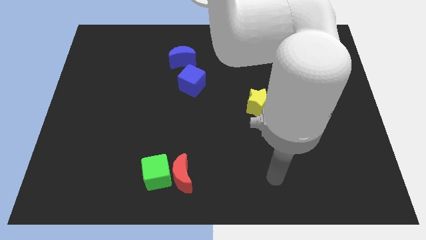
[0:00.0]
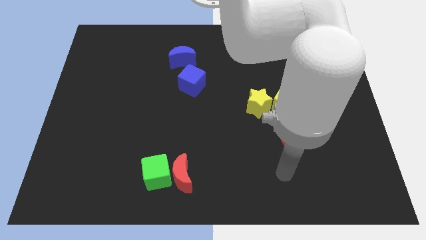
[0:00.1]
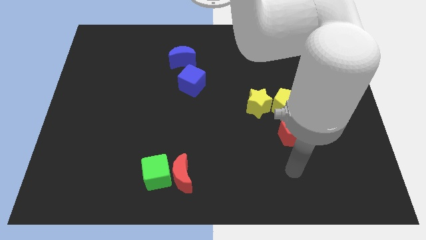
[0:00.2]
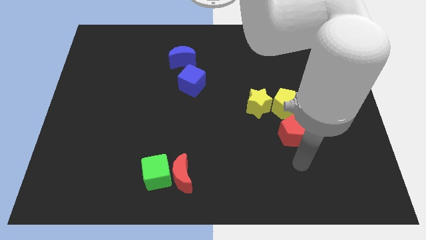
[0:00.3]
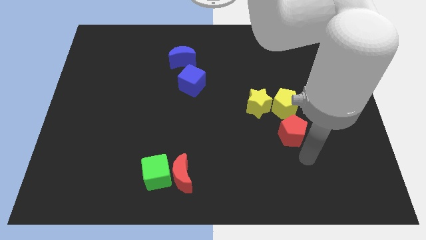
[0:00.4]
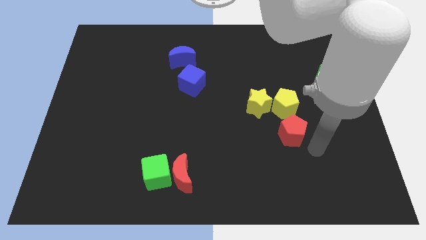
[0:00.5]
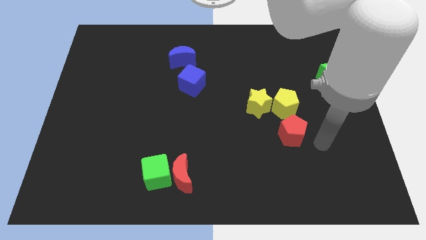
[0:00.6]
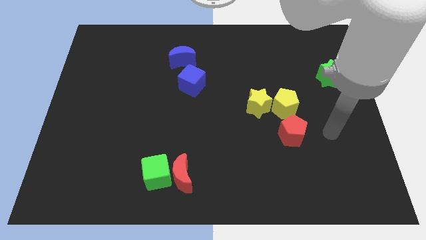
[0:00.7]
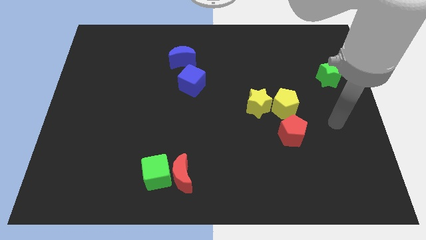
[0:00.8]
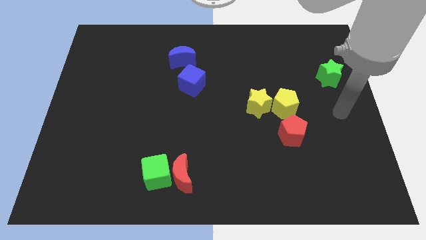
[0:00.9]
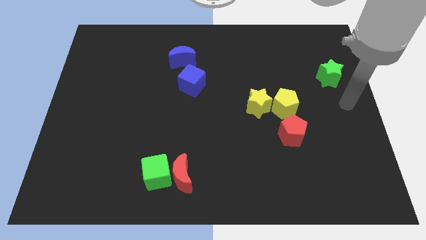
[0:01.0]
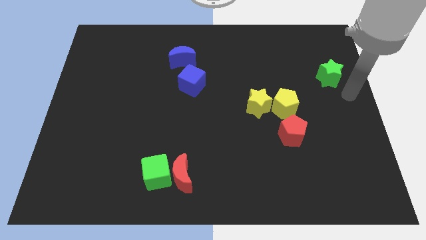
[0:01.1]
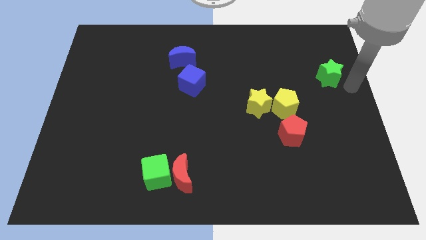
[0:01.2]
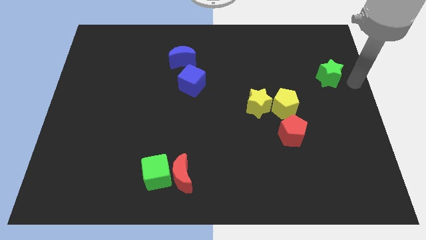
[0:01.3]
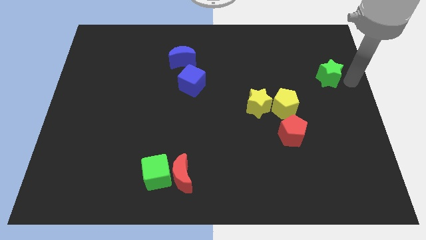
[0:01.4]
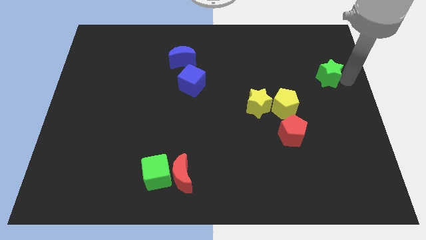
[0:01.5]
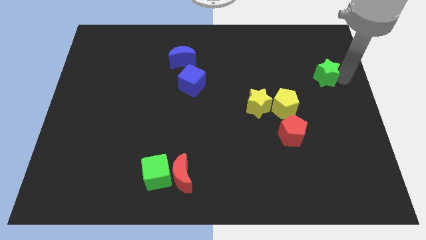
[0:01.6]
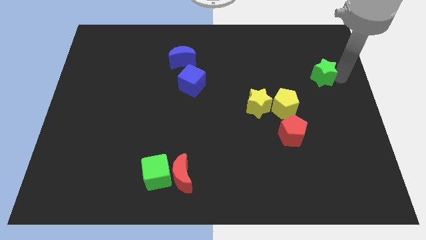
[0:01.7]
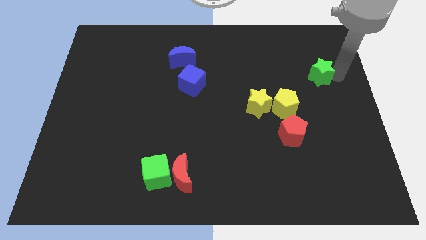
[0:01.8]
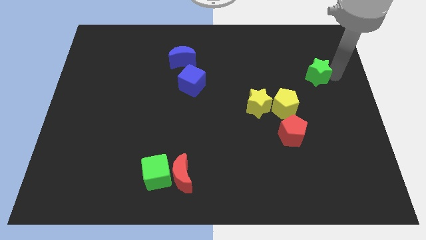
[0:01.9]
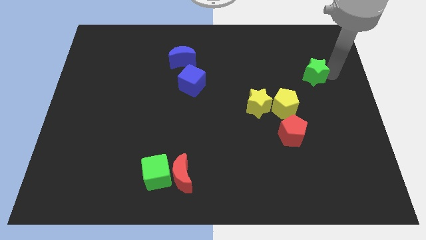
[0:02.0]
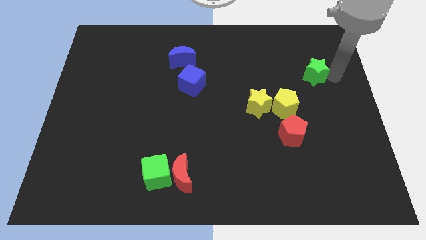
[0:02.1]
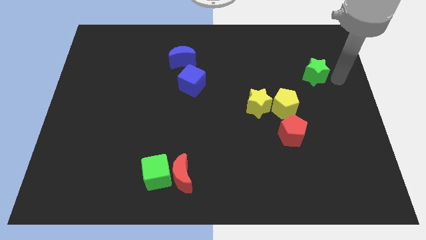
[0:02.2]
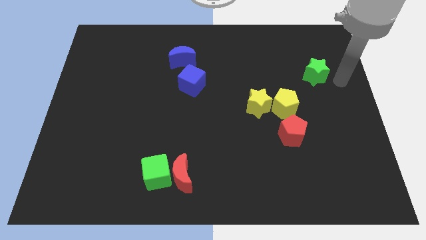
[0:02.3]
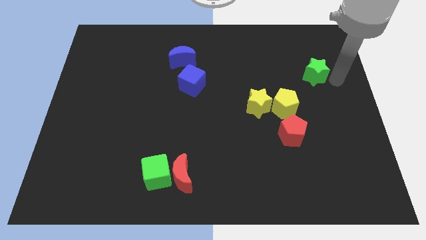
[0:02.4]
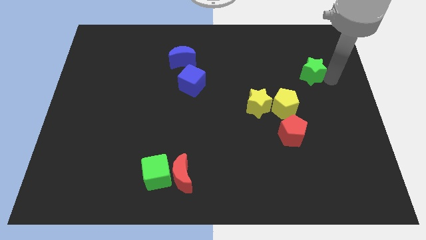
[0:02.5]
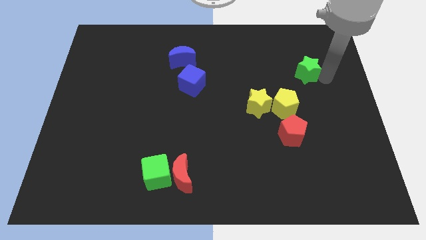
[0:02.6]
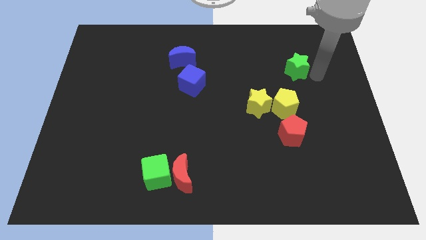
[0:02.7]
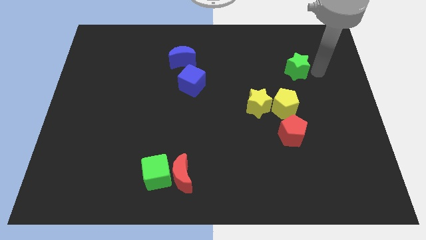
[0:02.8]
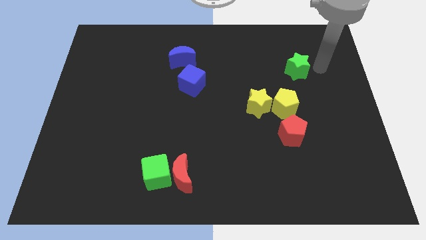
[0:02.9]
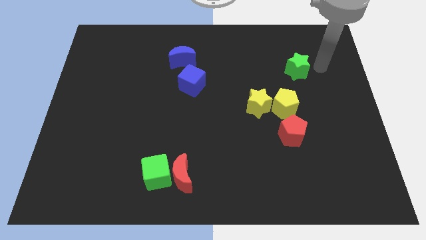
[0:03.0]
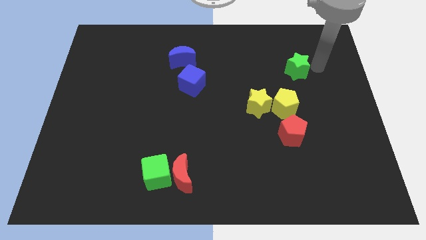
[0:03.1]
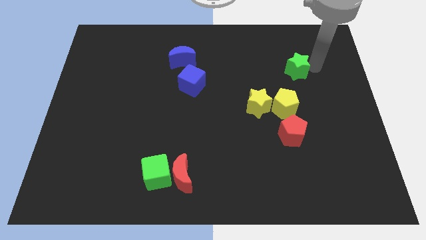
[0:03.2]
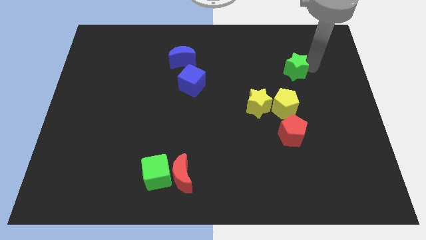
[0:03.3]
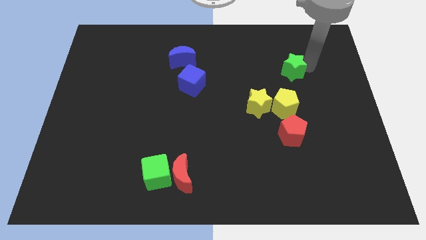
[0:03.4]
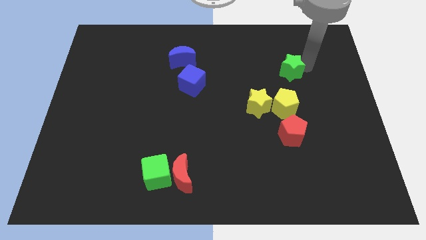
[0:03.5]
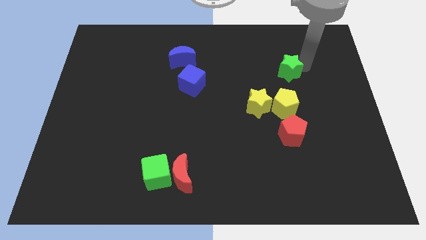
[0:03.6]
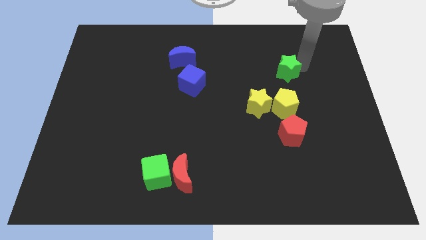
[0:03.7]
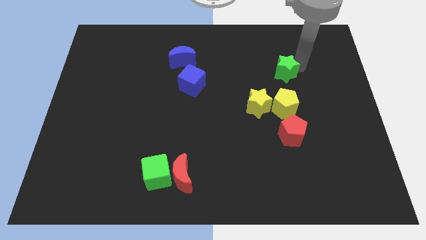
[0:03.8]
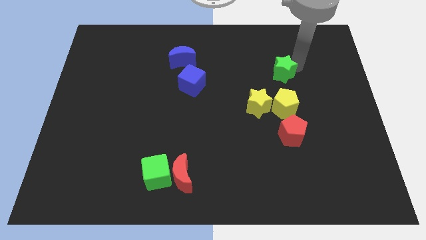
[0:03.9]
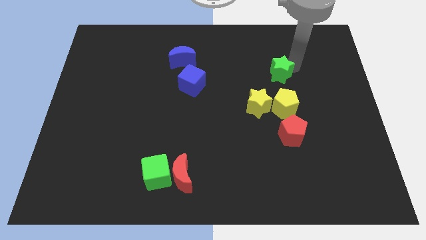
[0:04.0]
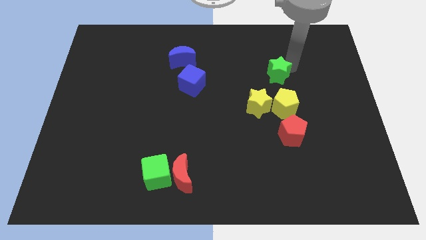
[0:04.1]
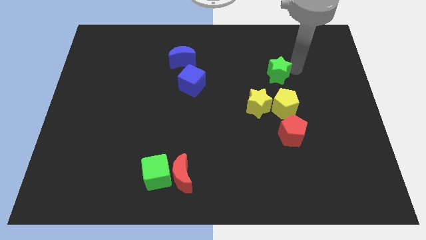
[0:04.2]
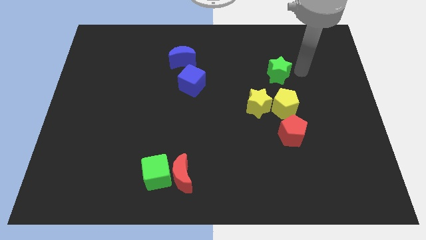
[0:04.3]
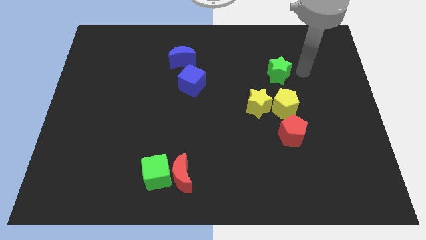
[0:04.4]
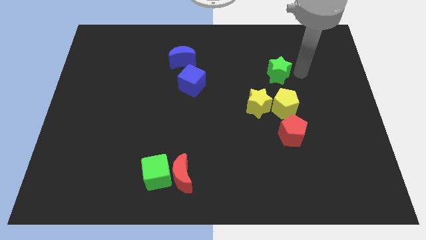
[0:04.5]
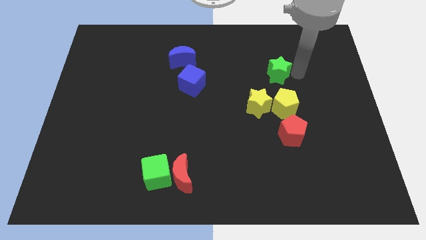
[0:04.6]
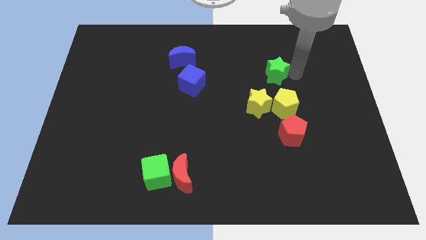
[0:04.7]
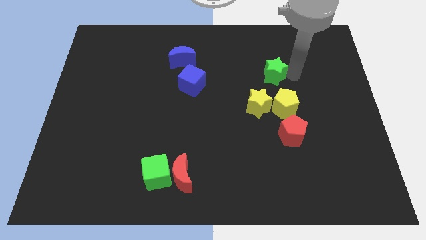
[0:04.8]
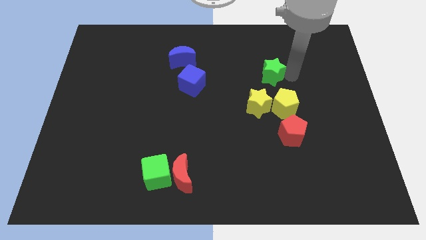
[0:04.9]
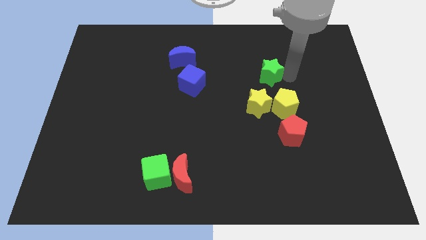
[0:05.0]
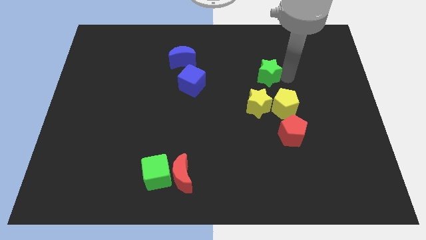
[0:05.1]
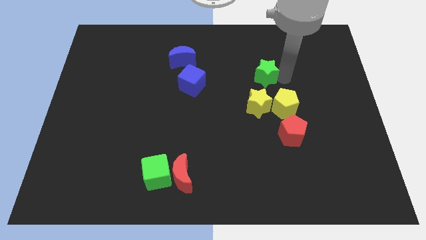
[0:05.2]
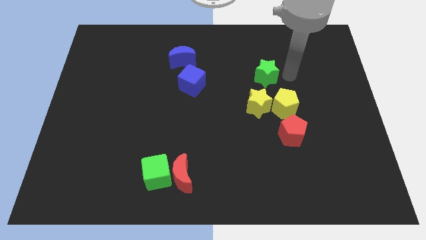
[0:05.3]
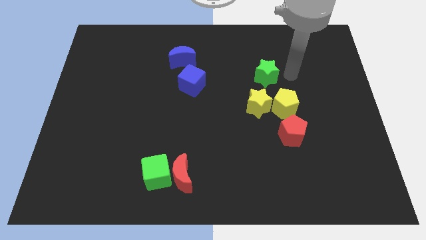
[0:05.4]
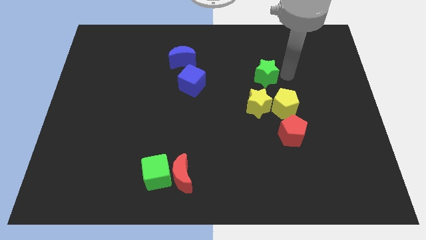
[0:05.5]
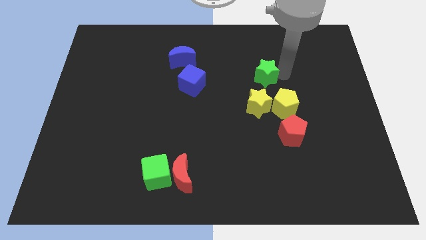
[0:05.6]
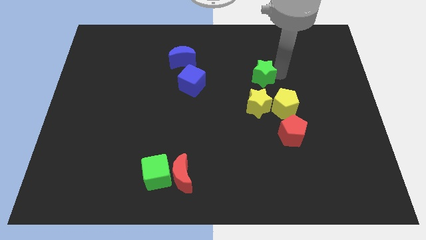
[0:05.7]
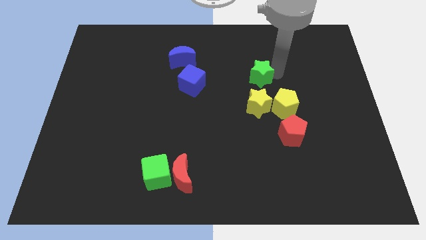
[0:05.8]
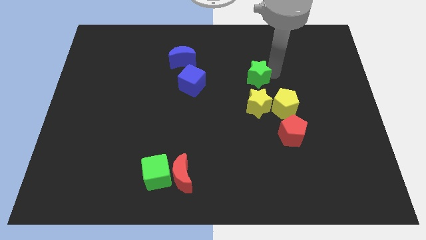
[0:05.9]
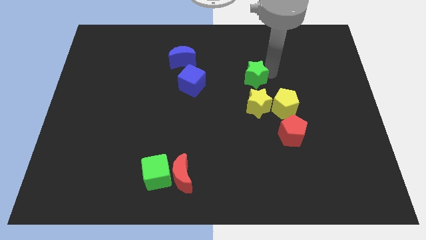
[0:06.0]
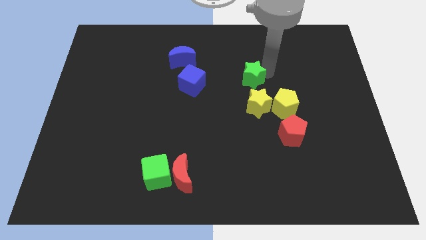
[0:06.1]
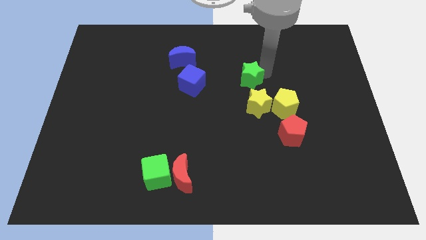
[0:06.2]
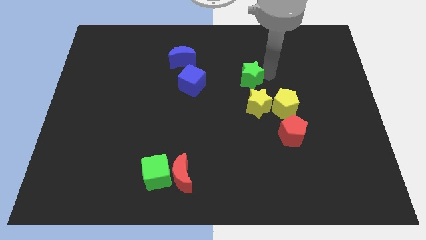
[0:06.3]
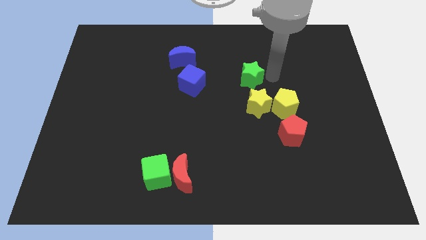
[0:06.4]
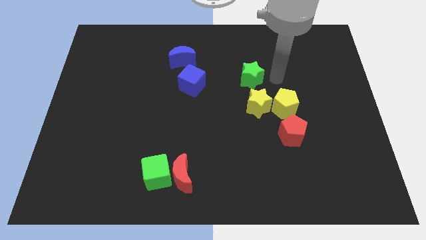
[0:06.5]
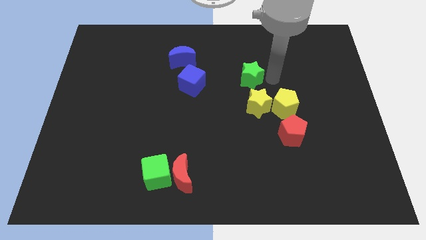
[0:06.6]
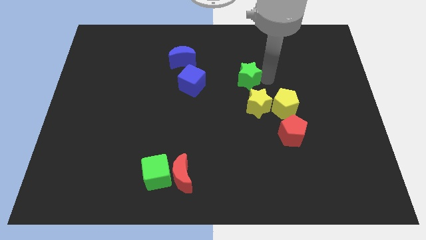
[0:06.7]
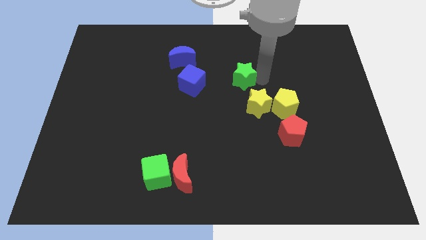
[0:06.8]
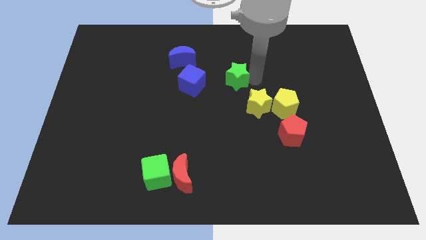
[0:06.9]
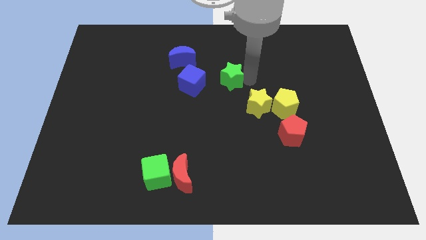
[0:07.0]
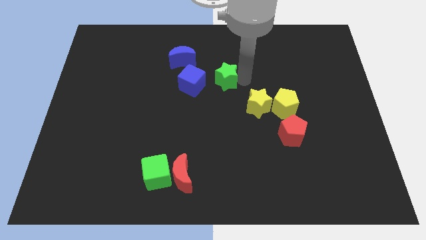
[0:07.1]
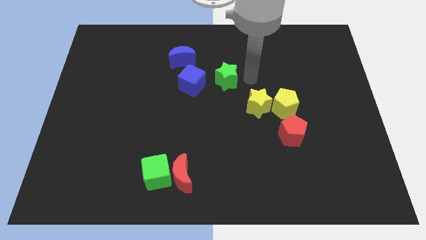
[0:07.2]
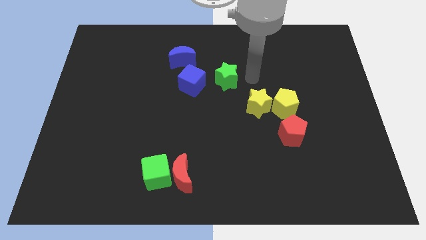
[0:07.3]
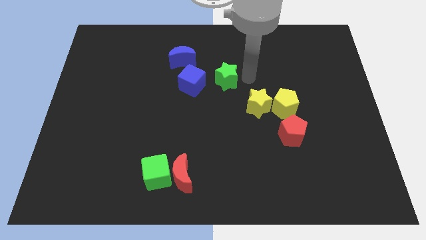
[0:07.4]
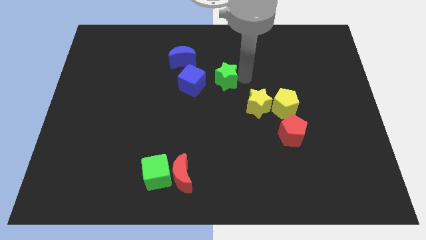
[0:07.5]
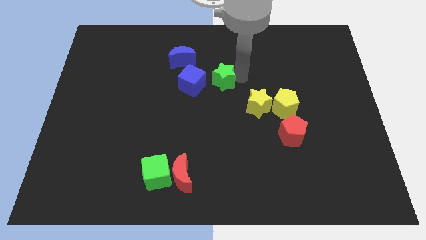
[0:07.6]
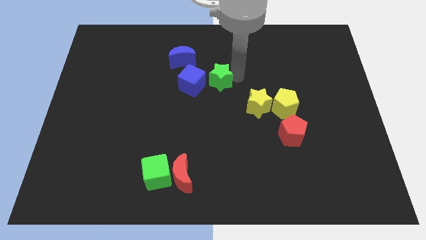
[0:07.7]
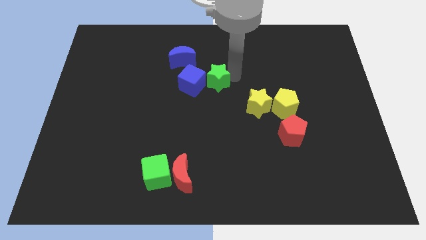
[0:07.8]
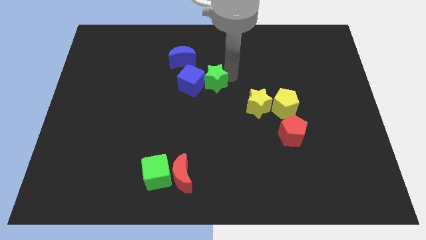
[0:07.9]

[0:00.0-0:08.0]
move the green star next to the blue cube
